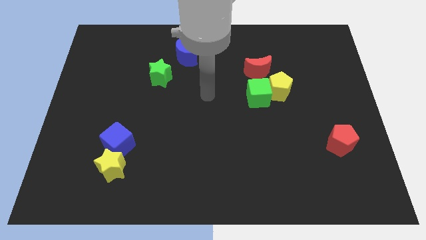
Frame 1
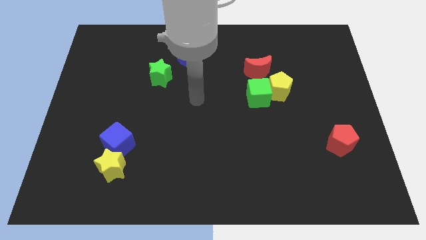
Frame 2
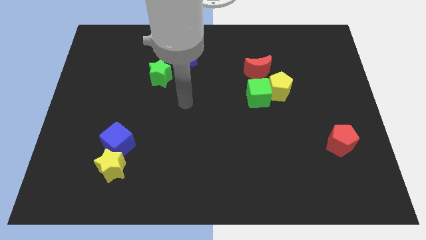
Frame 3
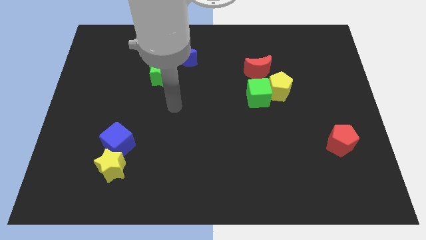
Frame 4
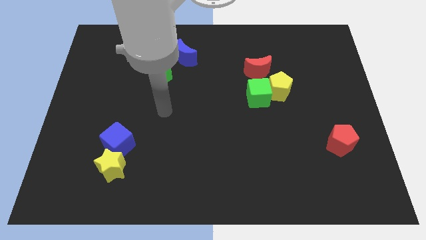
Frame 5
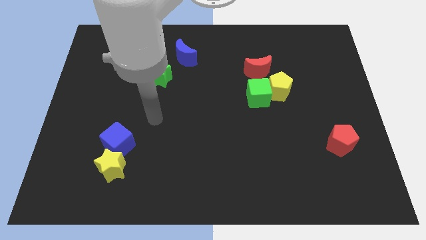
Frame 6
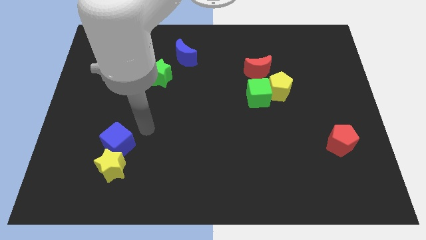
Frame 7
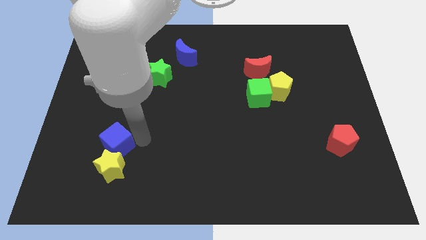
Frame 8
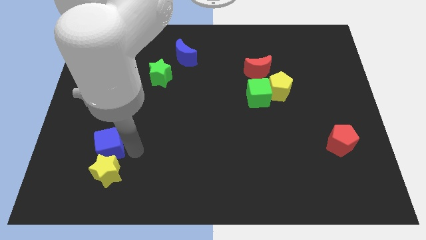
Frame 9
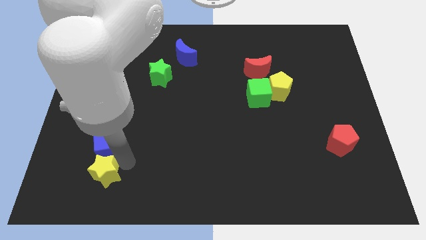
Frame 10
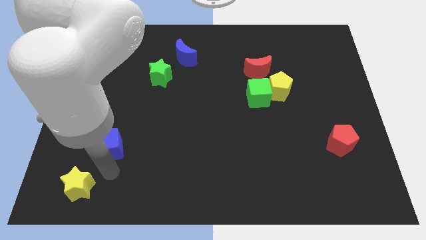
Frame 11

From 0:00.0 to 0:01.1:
pull the blue cube apart from the yellow star

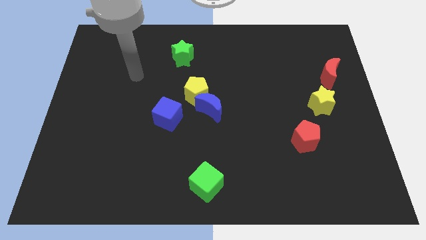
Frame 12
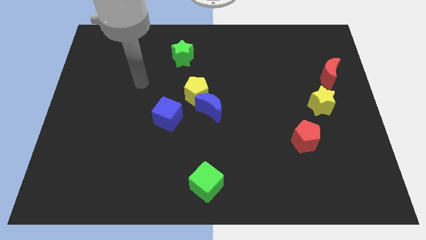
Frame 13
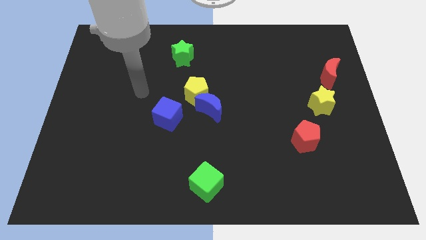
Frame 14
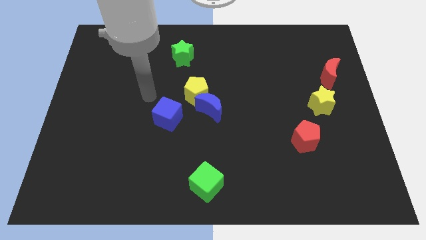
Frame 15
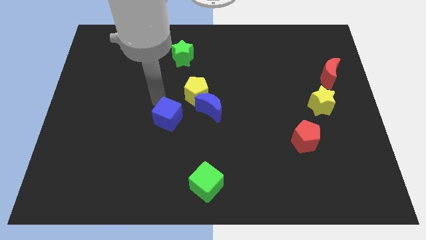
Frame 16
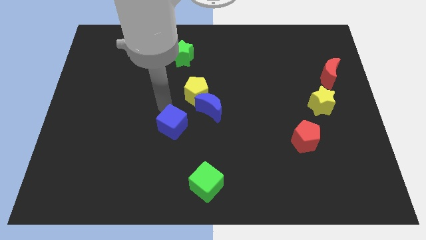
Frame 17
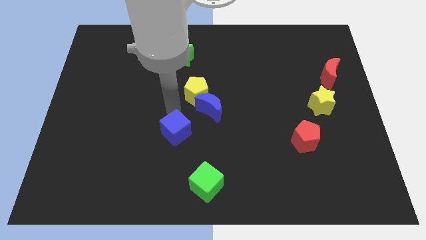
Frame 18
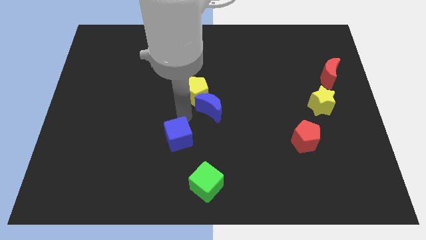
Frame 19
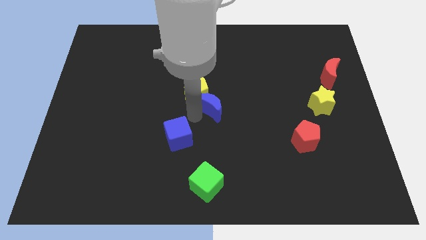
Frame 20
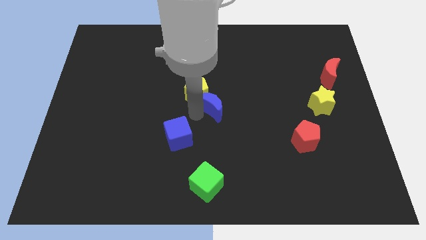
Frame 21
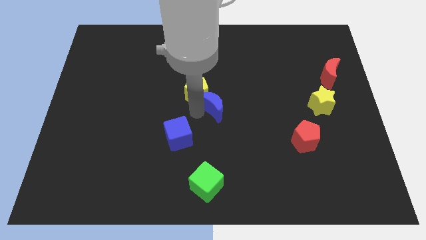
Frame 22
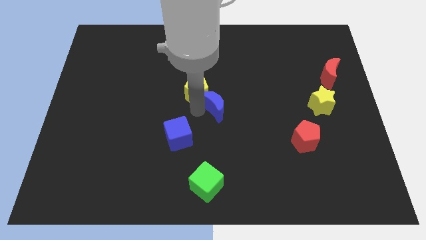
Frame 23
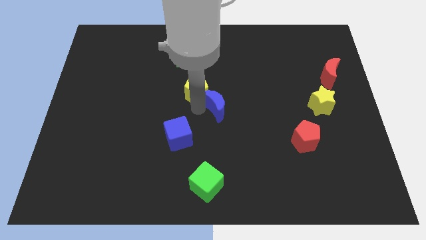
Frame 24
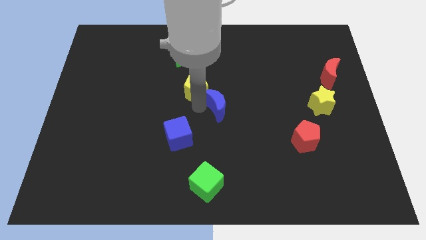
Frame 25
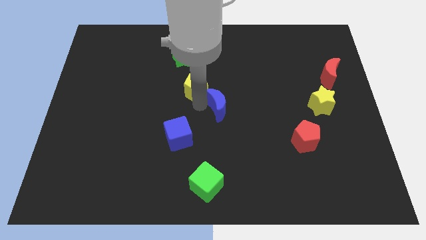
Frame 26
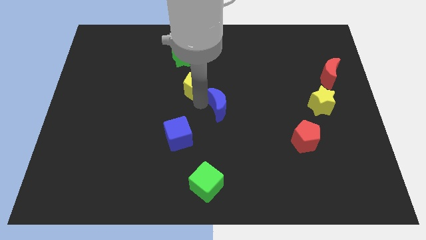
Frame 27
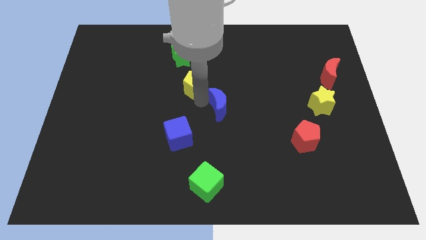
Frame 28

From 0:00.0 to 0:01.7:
move the yellow pentagon away from the blue moon and blue cube

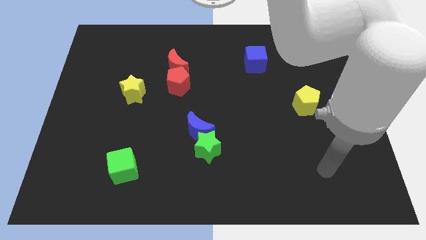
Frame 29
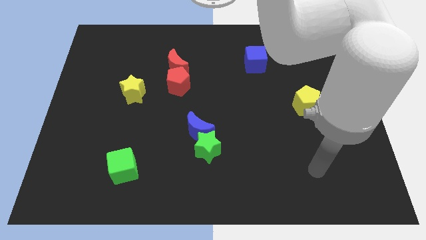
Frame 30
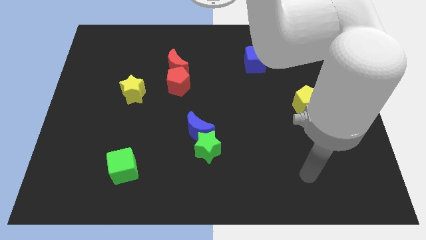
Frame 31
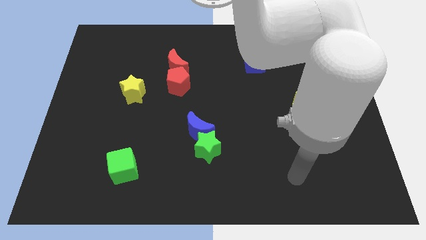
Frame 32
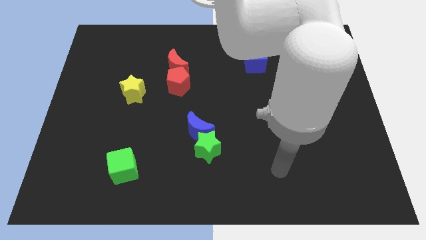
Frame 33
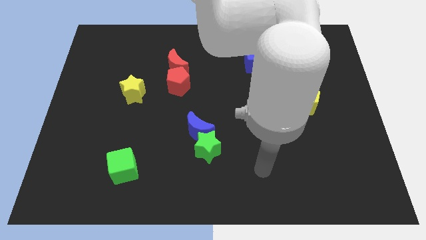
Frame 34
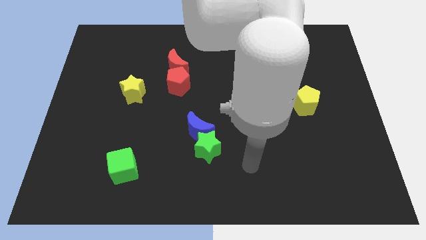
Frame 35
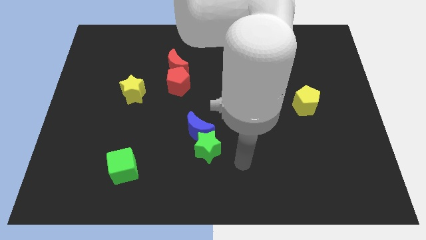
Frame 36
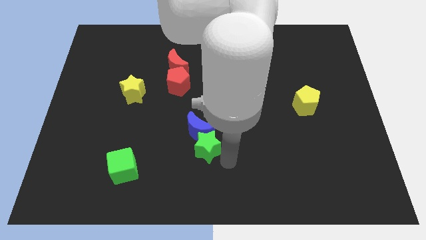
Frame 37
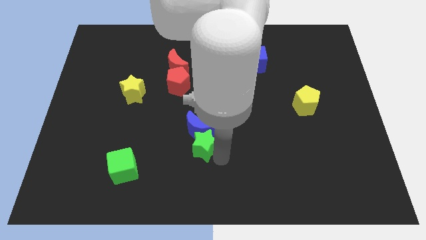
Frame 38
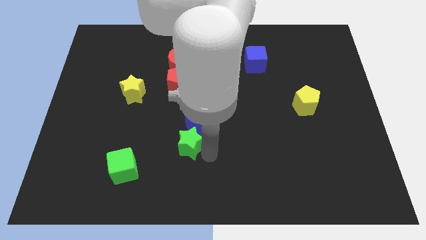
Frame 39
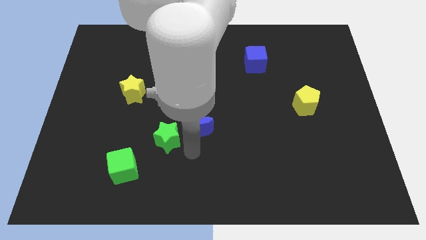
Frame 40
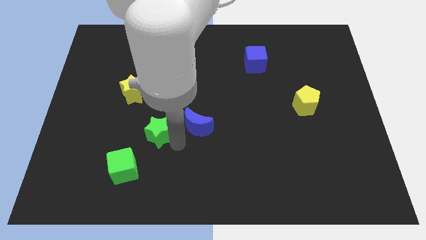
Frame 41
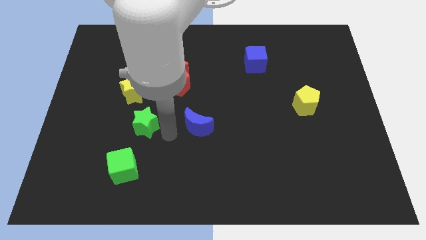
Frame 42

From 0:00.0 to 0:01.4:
move the blue moon away from the green star

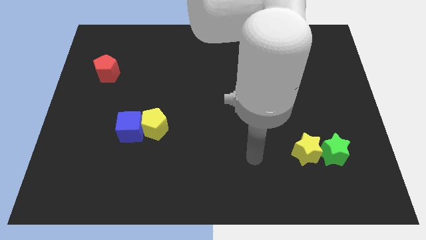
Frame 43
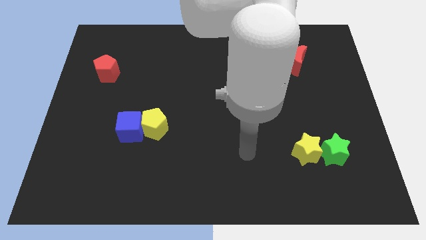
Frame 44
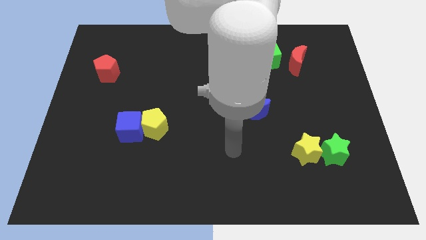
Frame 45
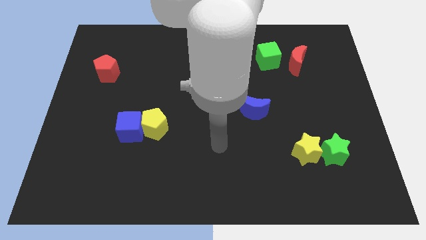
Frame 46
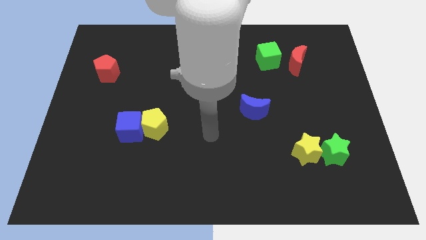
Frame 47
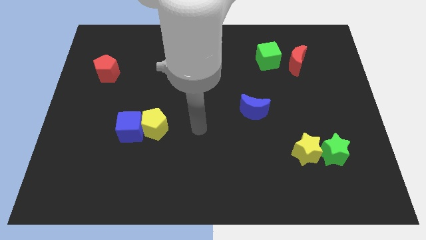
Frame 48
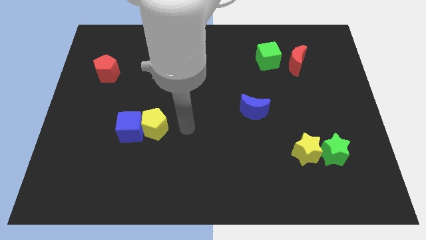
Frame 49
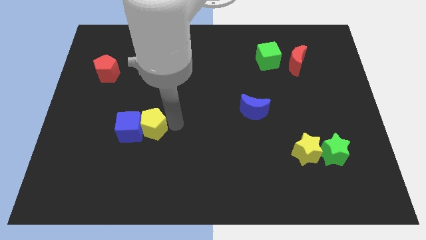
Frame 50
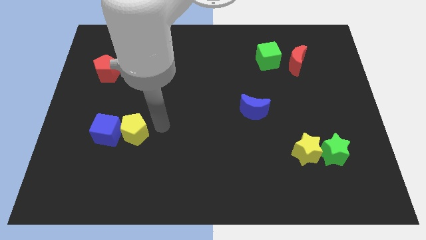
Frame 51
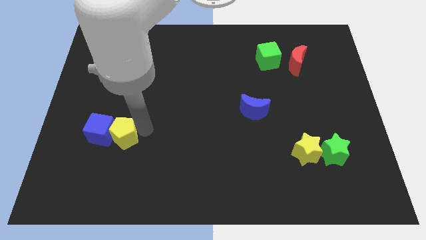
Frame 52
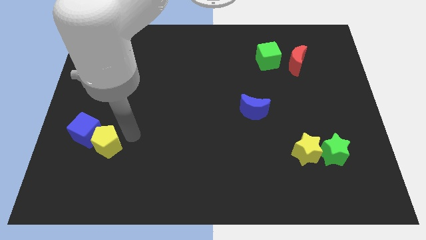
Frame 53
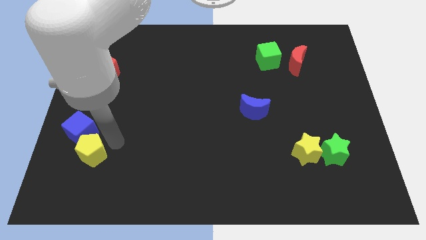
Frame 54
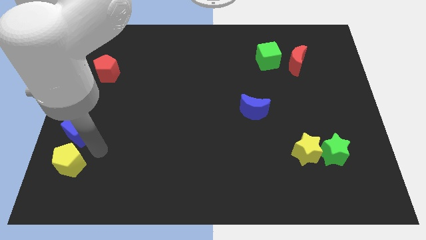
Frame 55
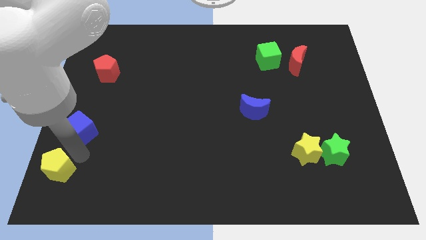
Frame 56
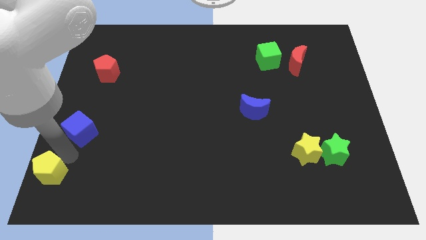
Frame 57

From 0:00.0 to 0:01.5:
pull the blue cube apart from the yellow pentagon

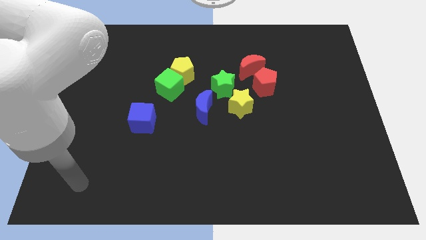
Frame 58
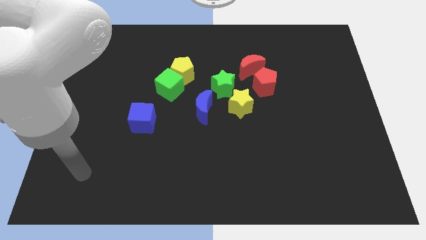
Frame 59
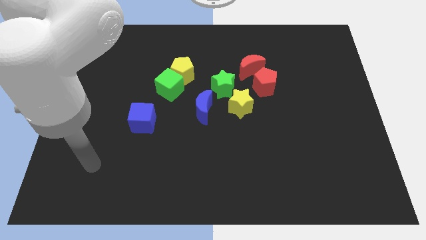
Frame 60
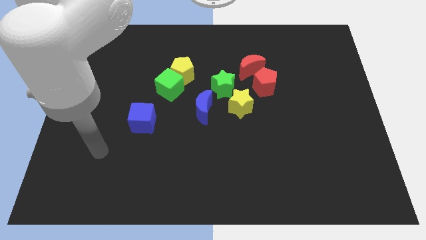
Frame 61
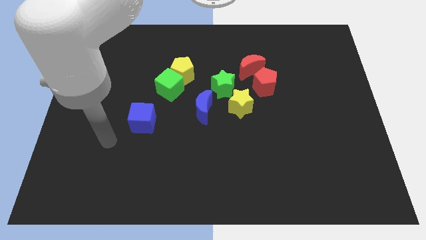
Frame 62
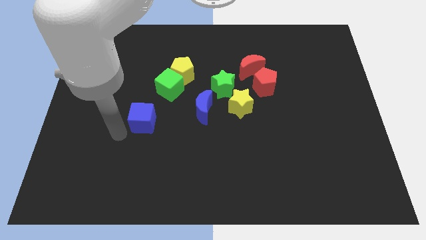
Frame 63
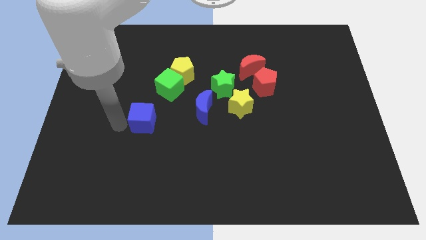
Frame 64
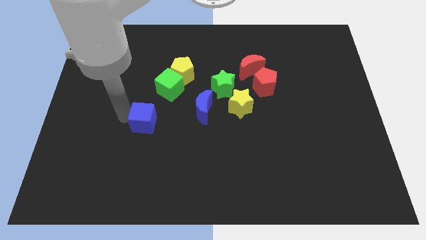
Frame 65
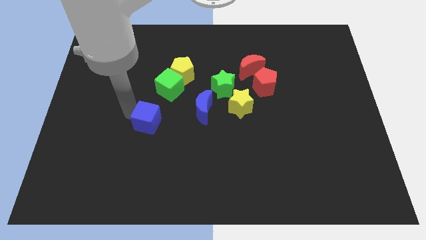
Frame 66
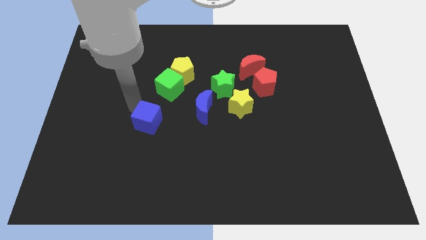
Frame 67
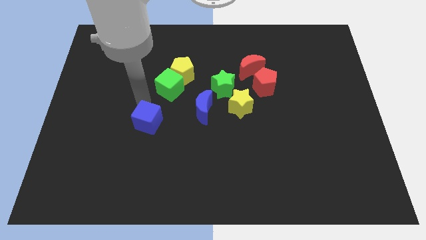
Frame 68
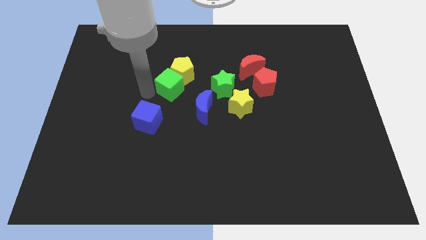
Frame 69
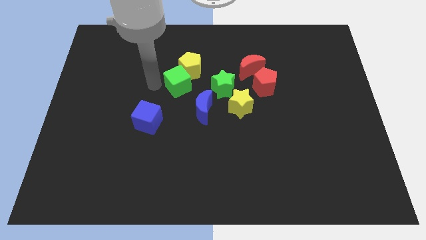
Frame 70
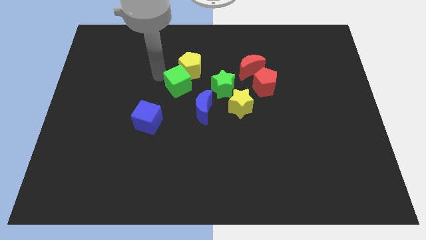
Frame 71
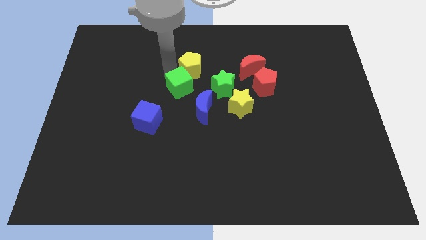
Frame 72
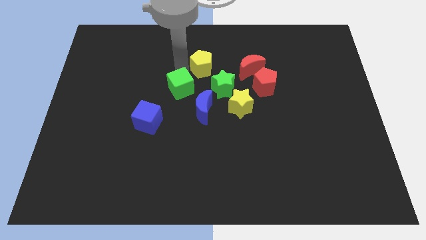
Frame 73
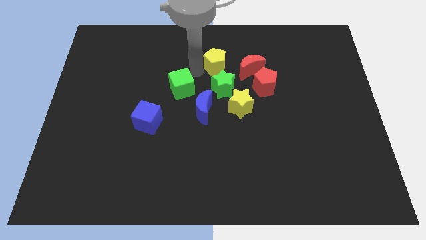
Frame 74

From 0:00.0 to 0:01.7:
pull the green cube apart from the yellow pentagon

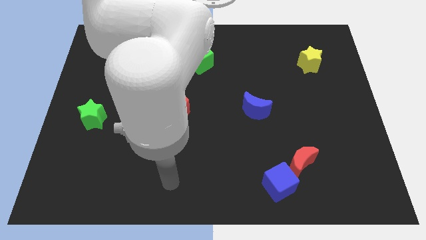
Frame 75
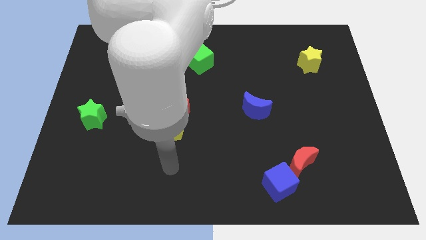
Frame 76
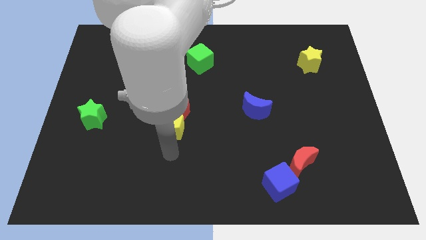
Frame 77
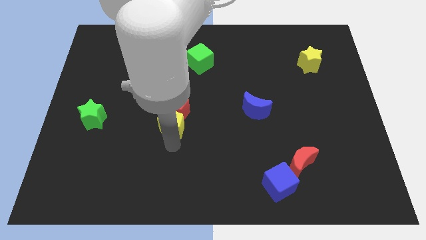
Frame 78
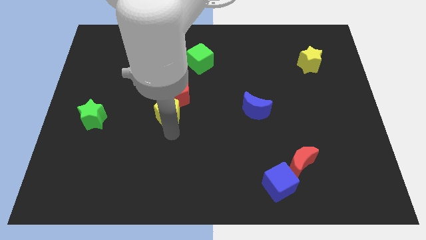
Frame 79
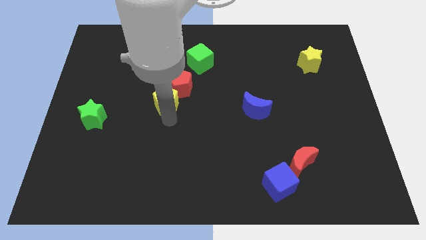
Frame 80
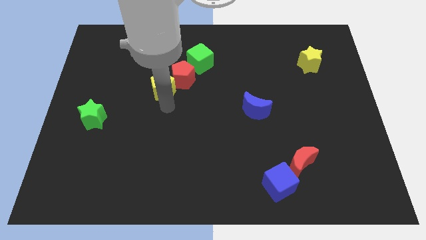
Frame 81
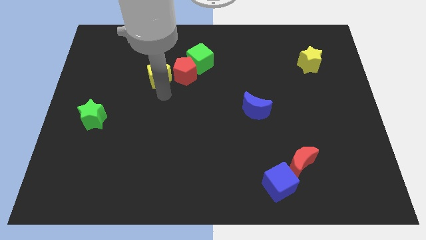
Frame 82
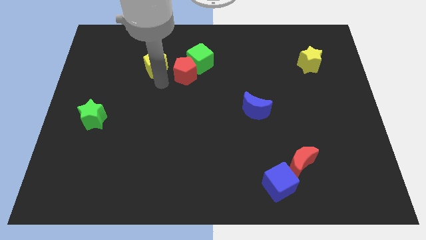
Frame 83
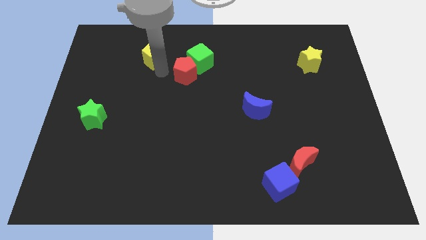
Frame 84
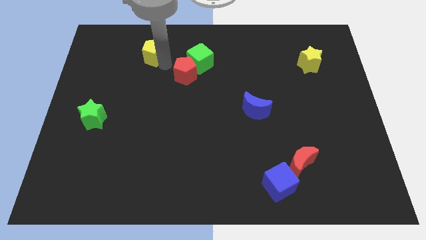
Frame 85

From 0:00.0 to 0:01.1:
separate the red pentagon from the yellow pentagon

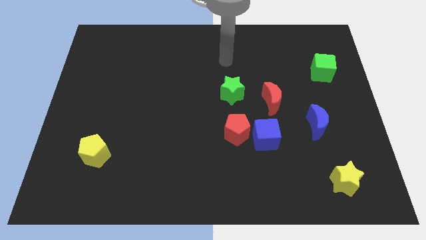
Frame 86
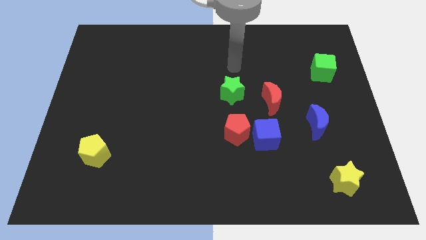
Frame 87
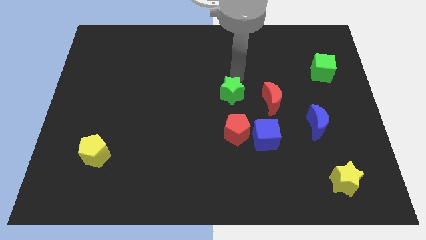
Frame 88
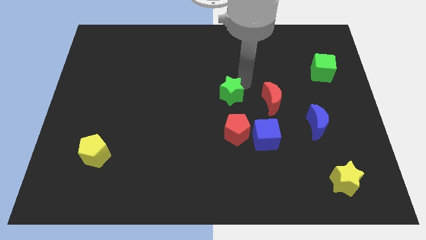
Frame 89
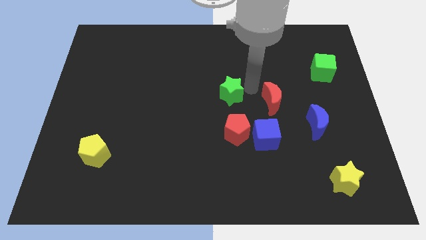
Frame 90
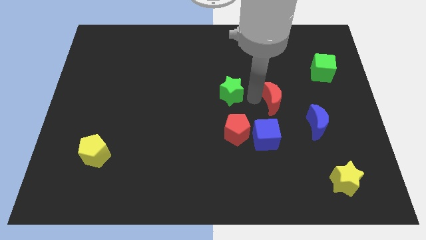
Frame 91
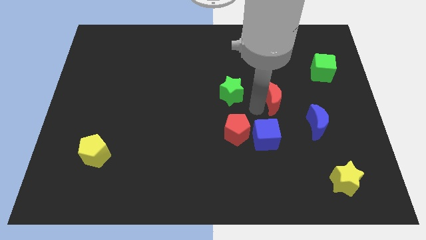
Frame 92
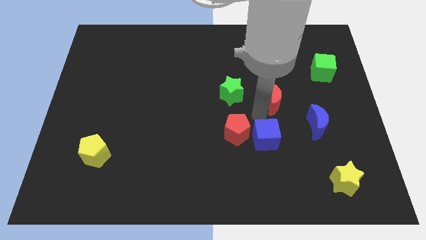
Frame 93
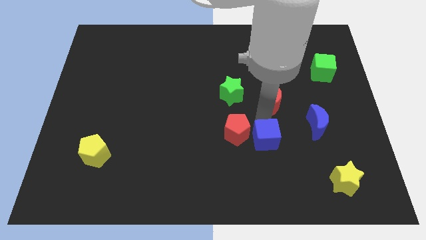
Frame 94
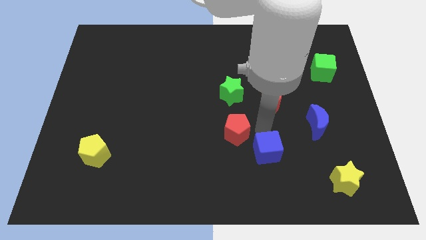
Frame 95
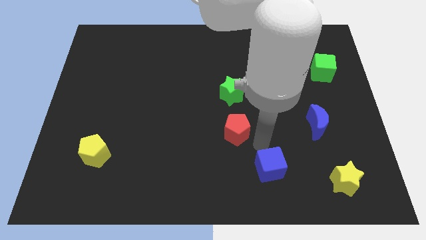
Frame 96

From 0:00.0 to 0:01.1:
separate the red pentagon from the blue cube
